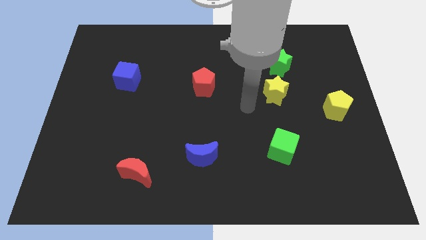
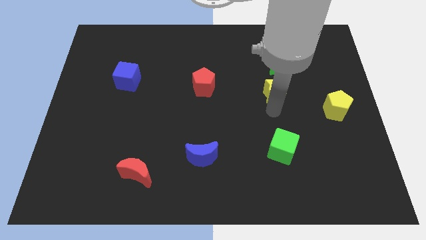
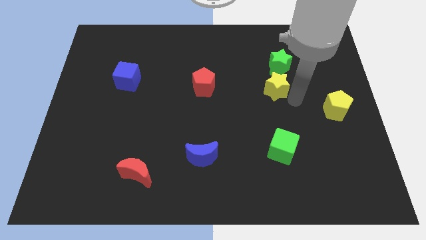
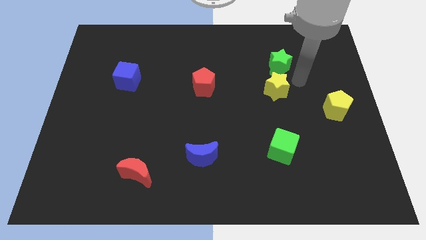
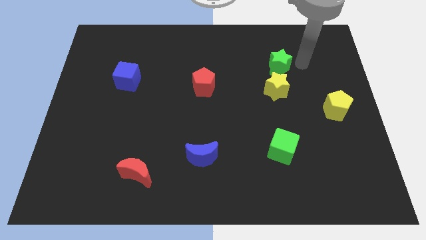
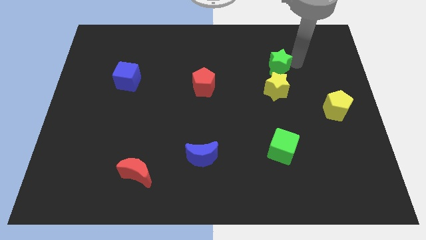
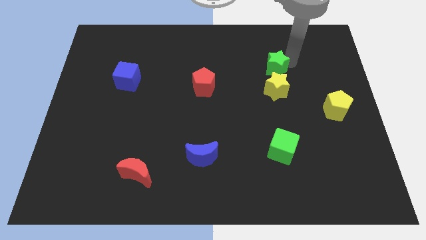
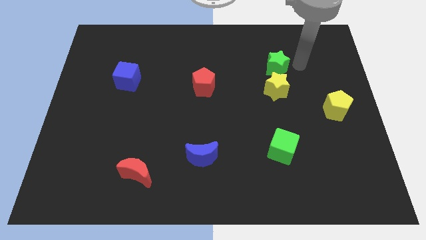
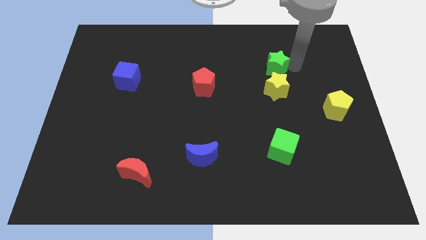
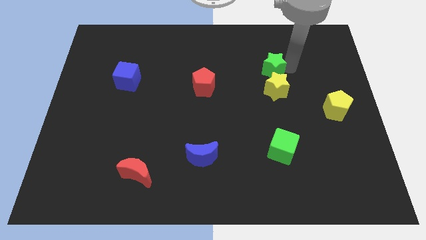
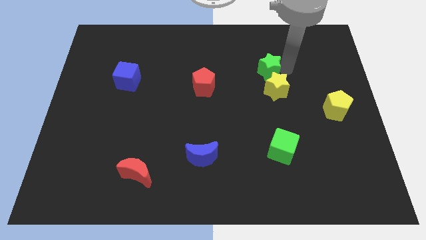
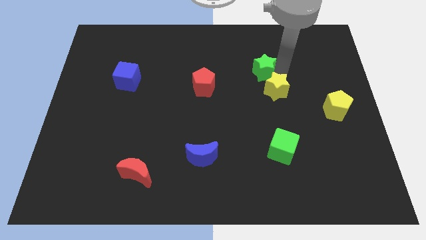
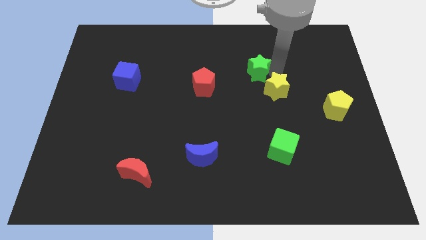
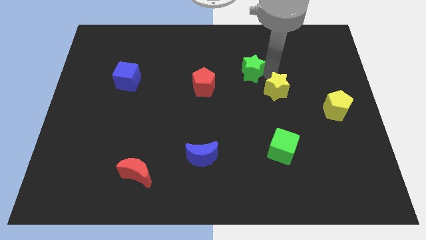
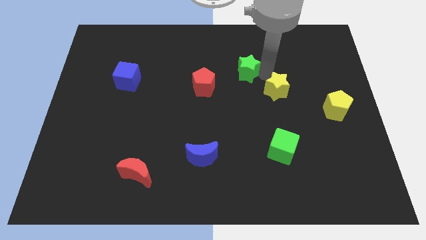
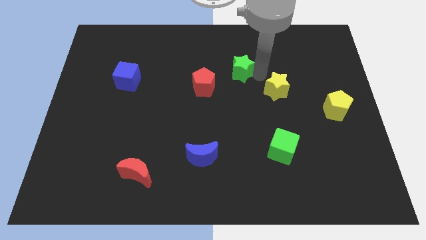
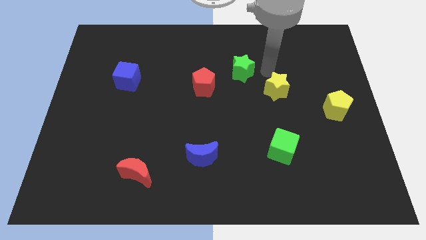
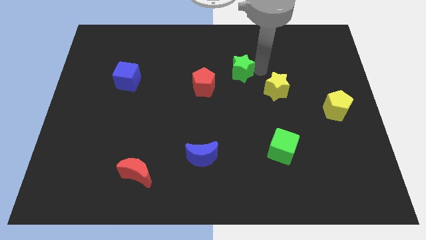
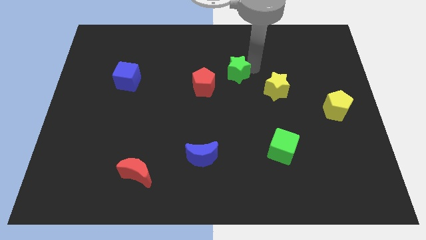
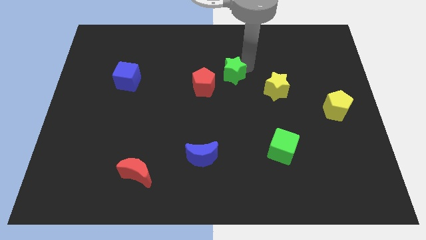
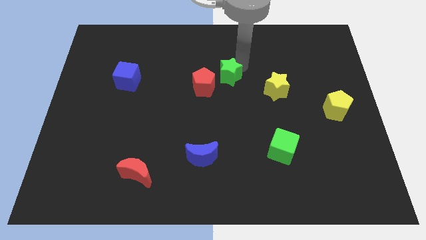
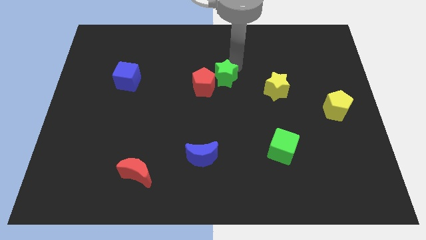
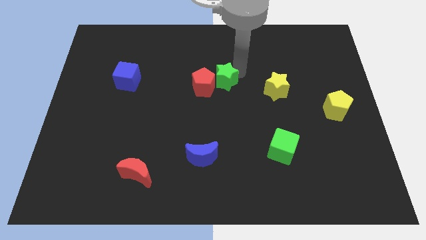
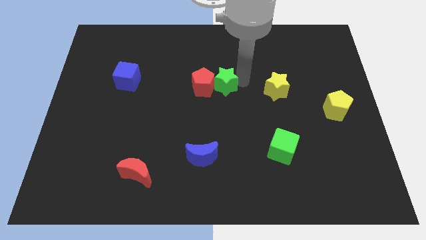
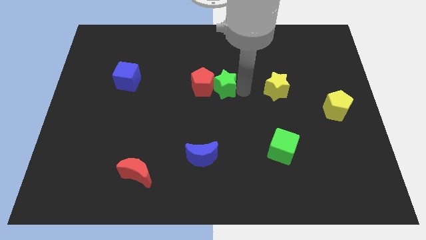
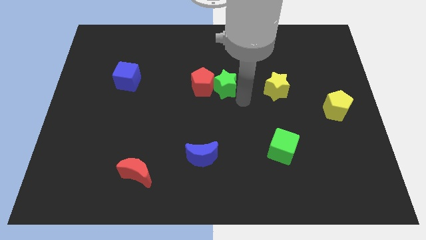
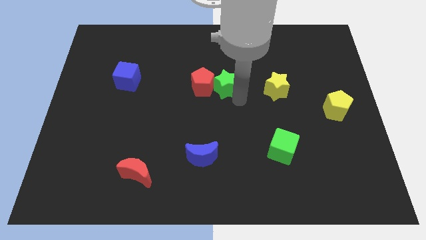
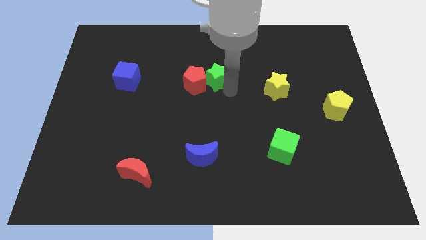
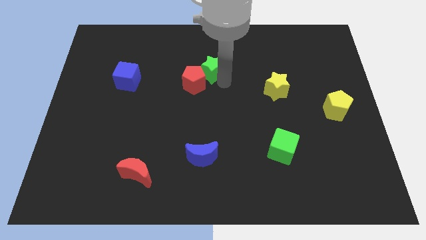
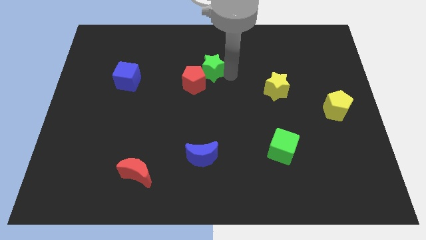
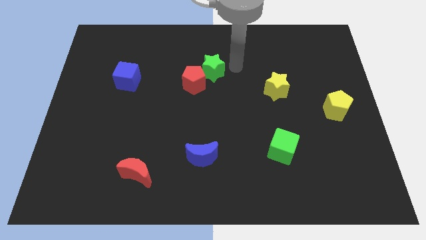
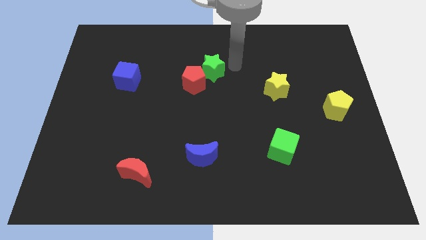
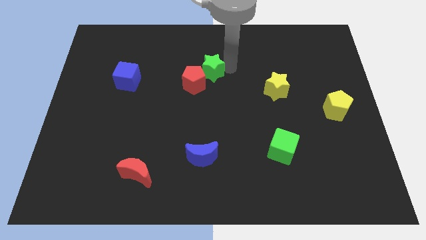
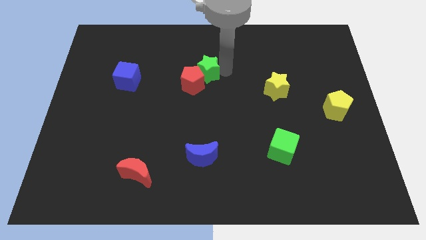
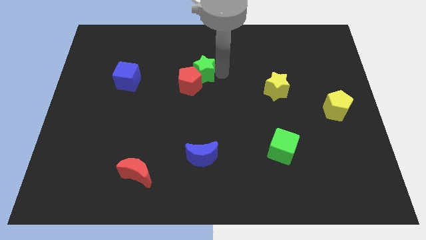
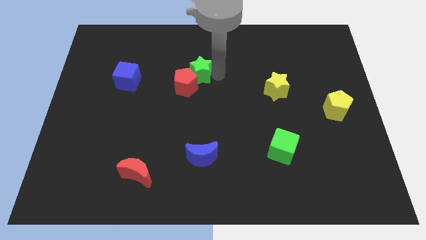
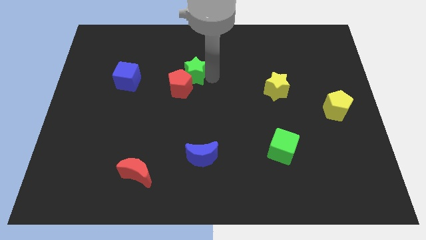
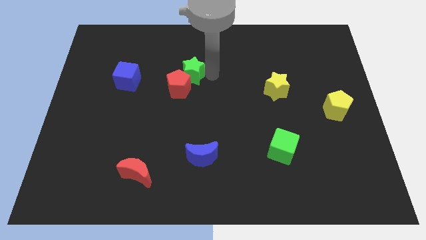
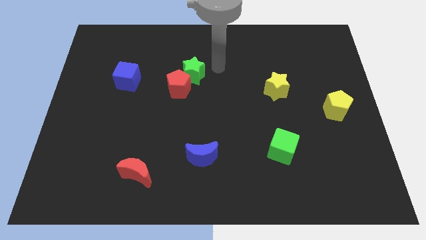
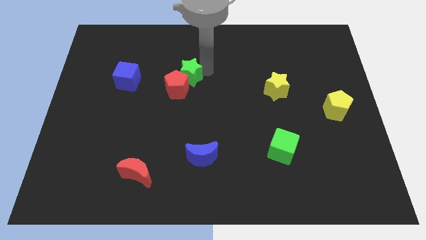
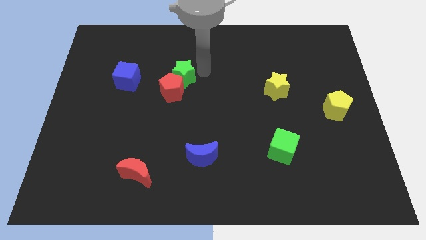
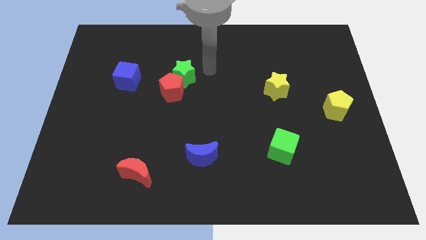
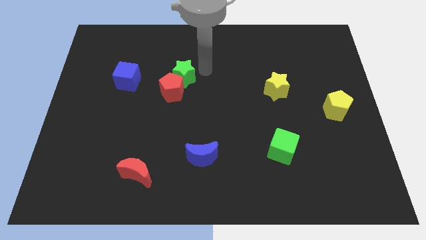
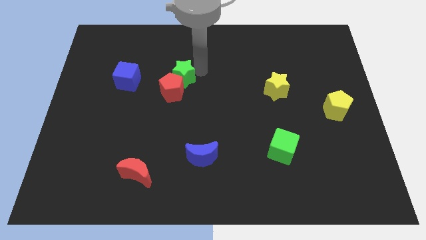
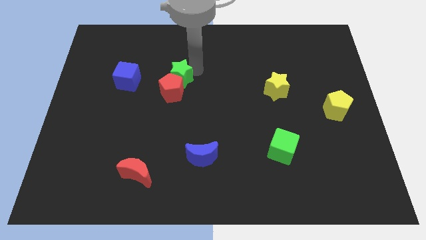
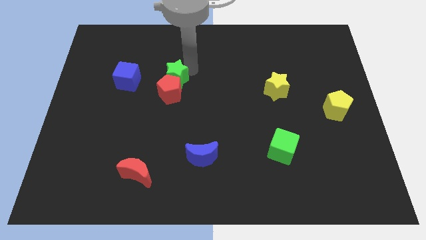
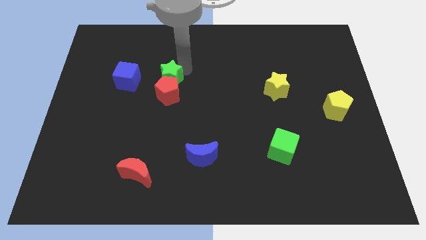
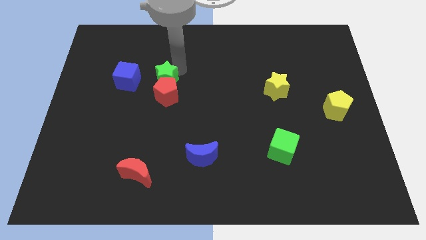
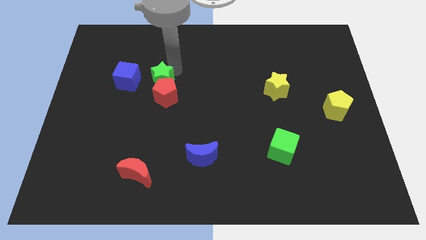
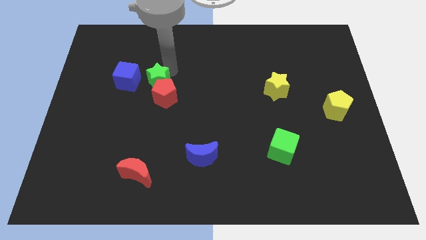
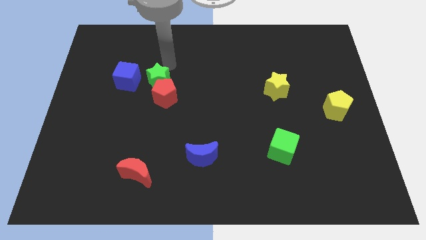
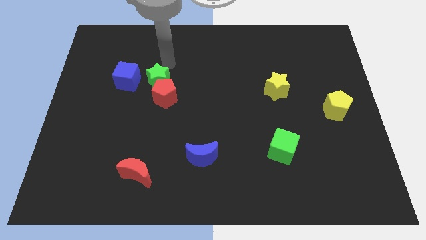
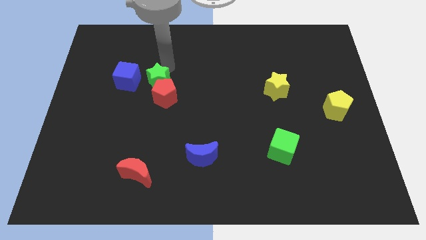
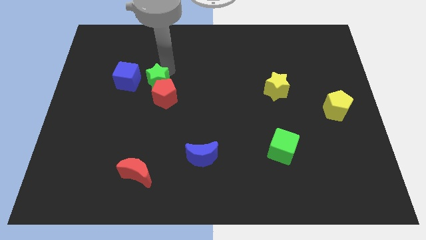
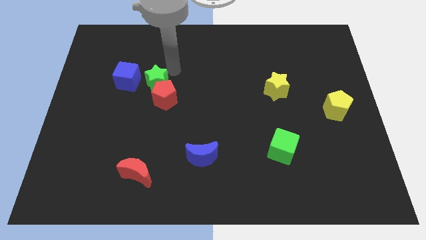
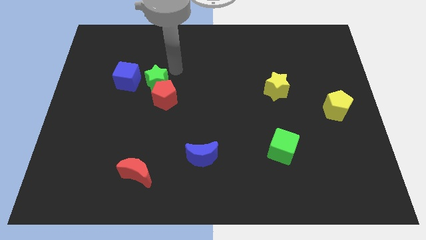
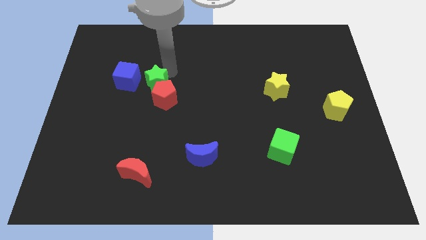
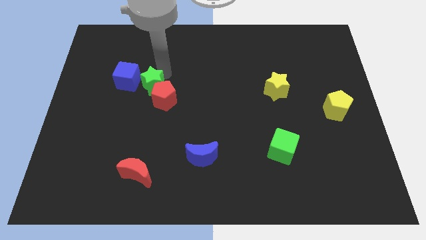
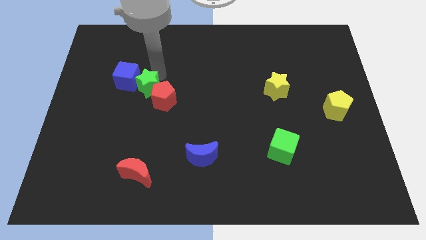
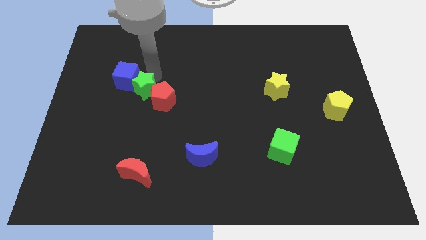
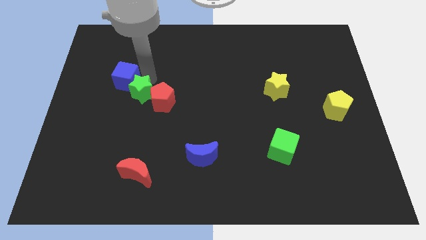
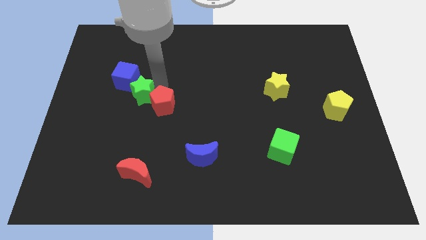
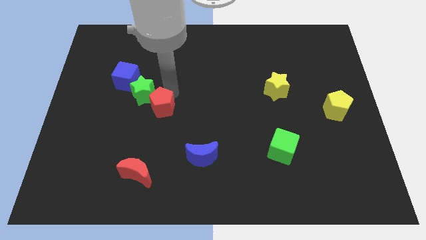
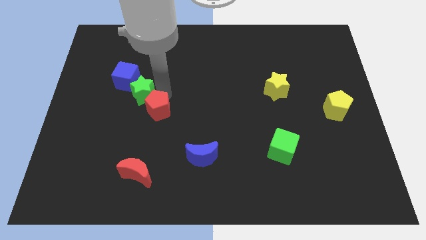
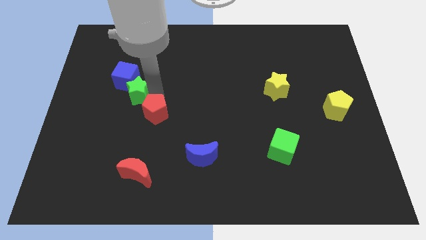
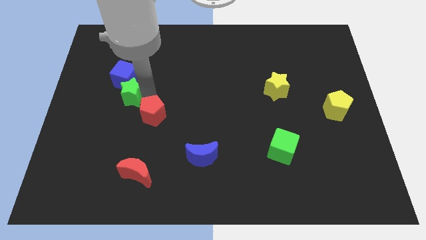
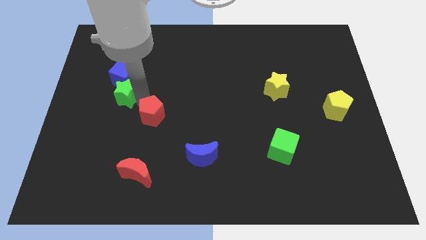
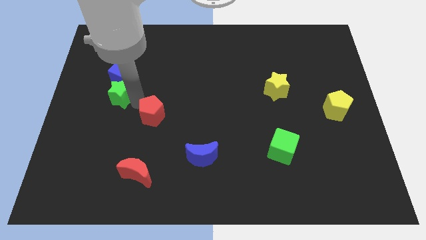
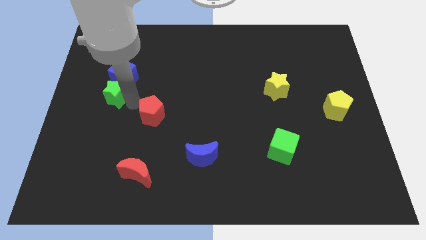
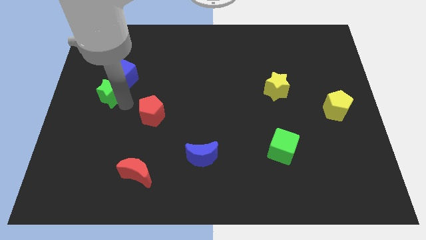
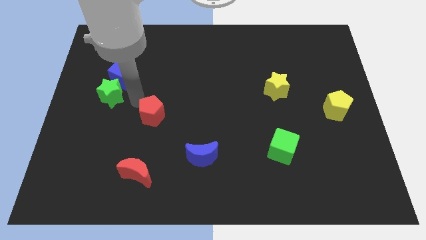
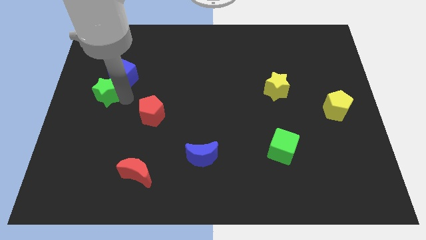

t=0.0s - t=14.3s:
put the green star to the center left
